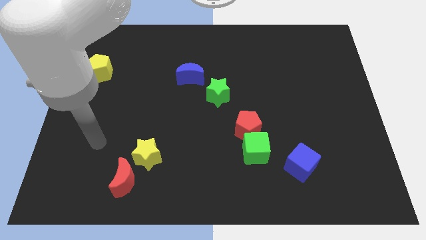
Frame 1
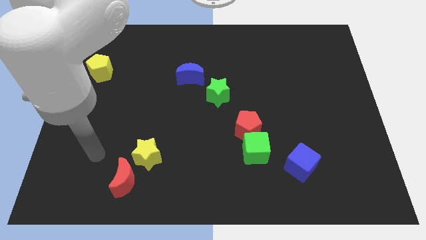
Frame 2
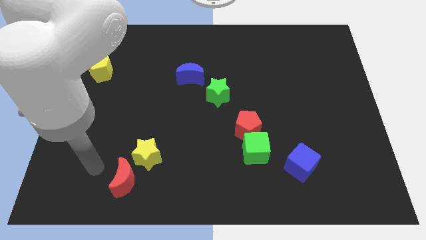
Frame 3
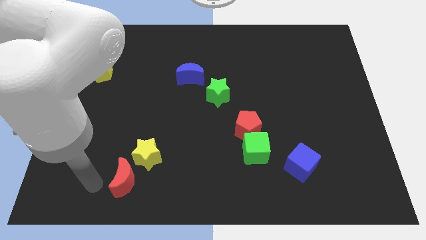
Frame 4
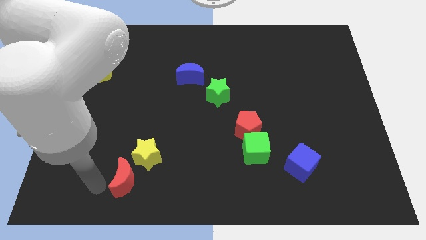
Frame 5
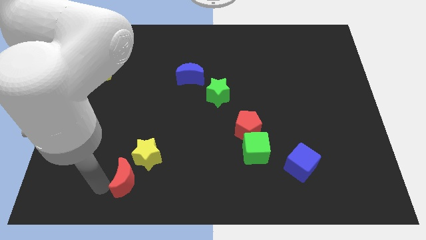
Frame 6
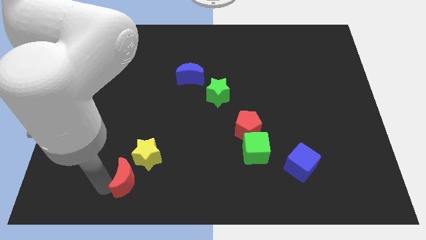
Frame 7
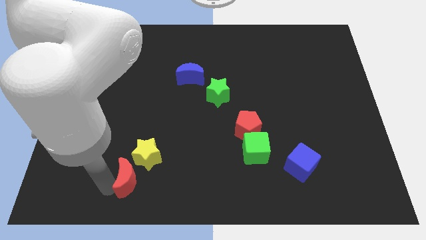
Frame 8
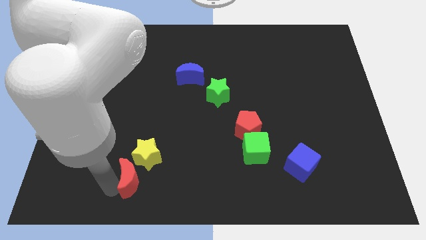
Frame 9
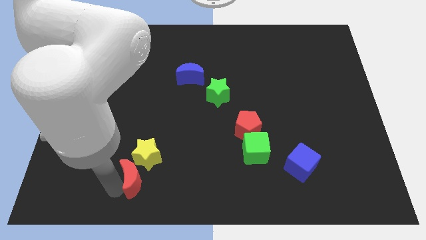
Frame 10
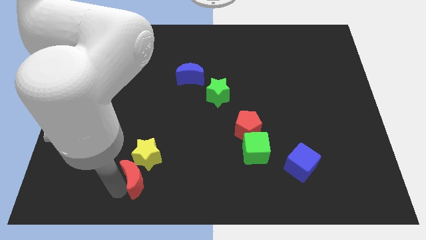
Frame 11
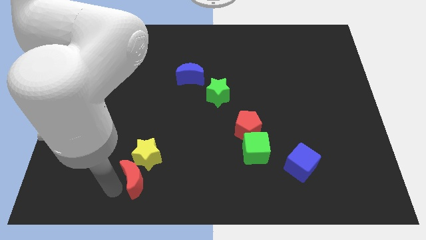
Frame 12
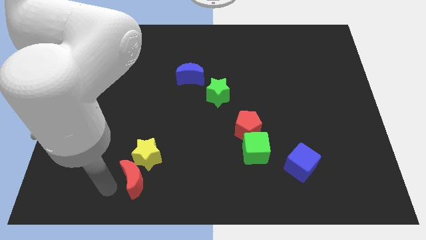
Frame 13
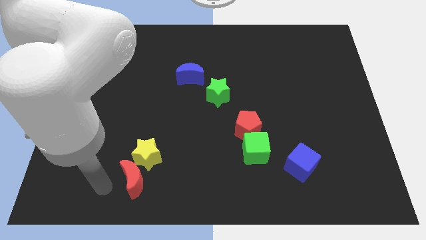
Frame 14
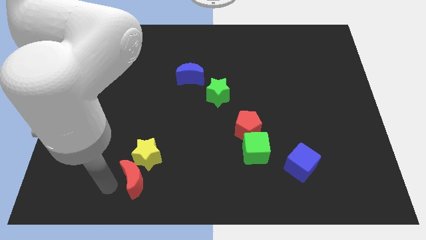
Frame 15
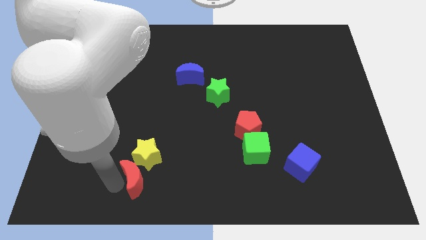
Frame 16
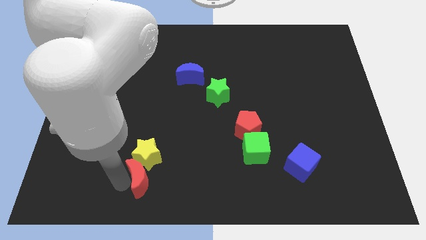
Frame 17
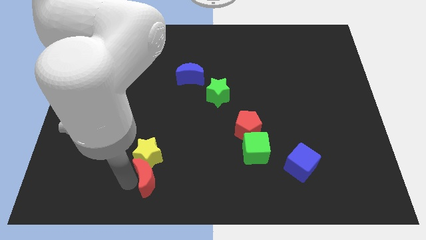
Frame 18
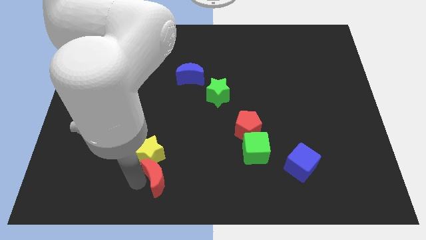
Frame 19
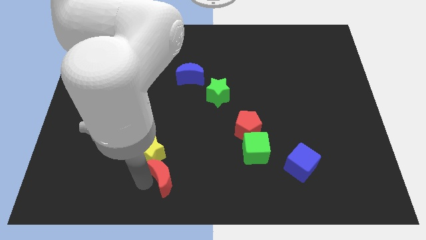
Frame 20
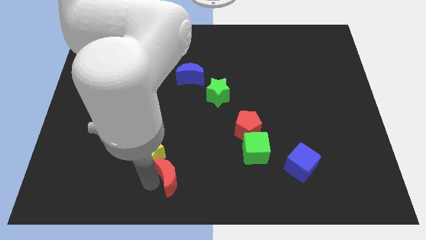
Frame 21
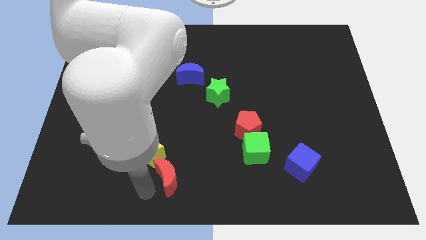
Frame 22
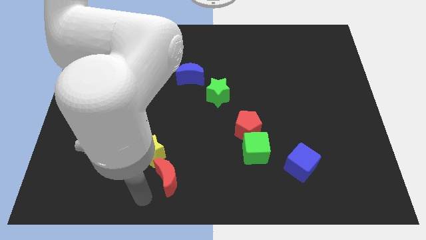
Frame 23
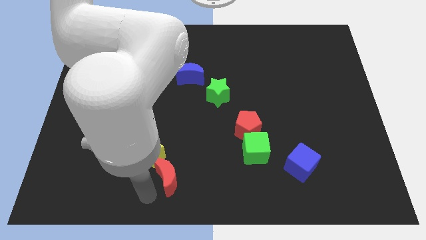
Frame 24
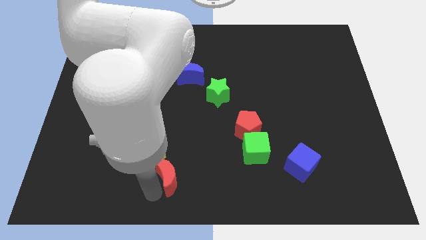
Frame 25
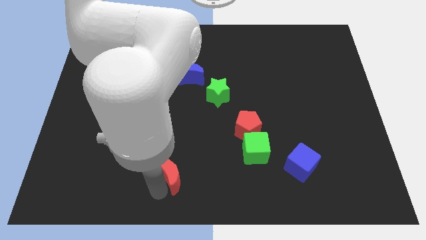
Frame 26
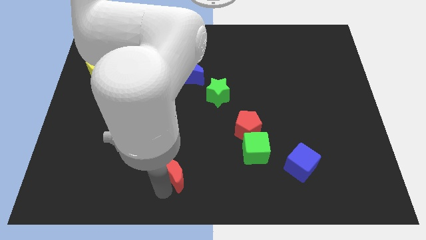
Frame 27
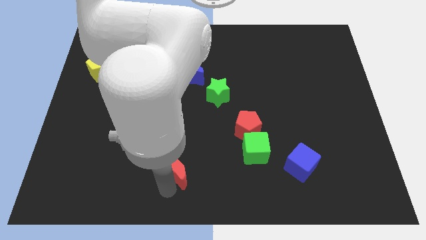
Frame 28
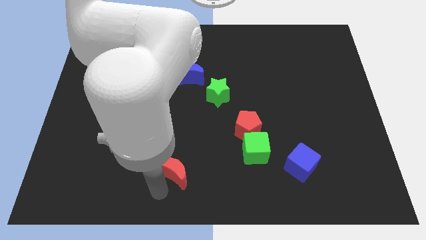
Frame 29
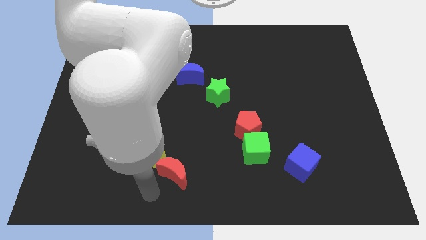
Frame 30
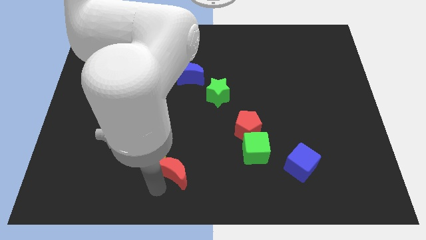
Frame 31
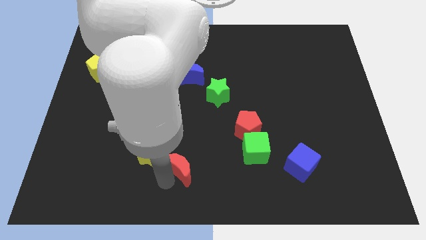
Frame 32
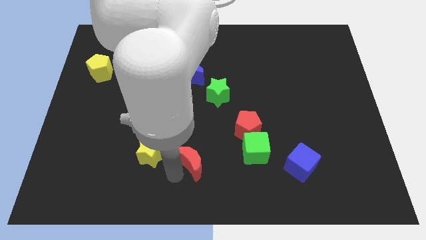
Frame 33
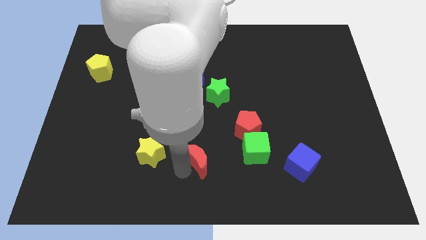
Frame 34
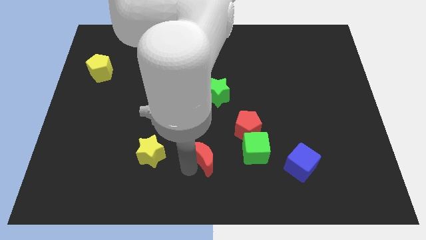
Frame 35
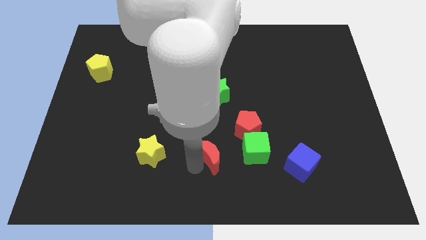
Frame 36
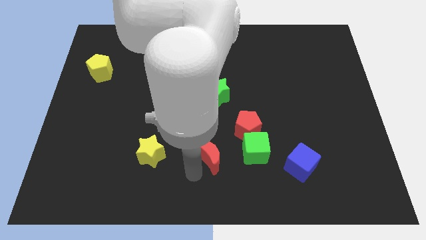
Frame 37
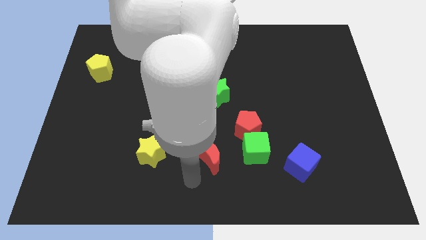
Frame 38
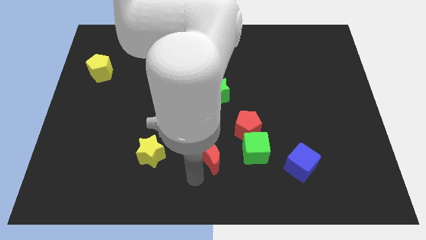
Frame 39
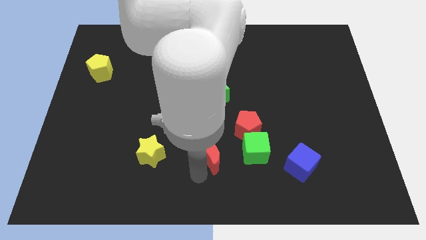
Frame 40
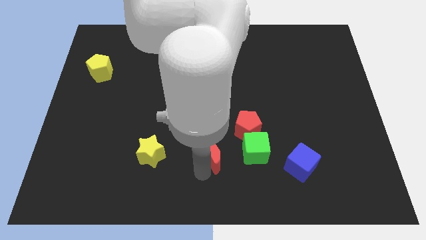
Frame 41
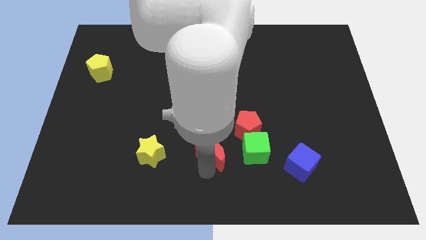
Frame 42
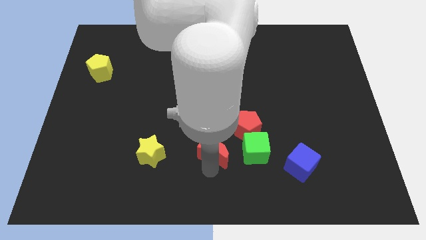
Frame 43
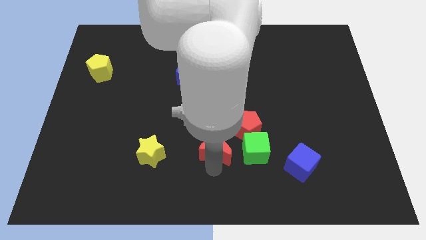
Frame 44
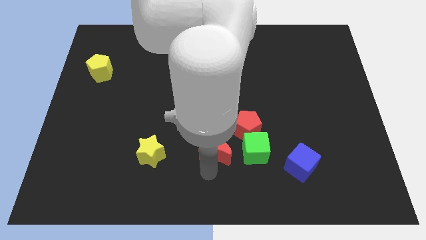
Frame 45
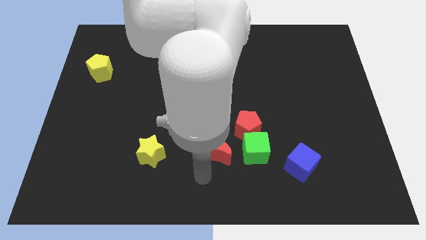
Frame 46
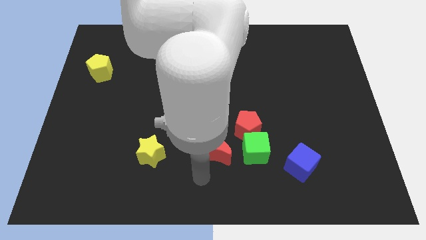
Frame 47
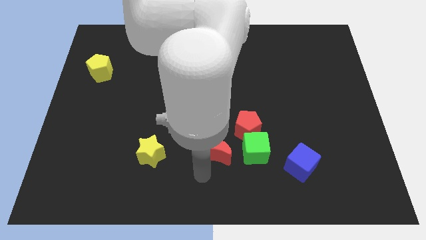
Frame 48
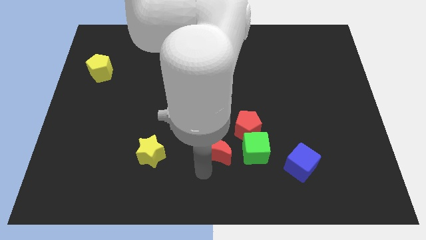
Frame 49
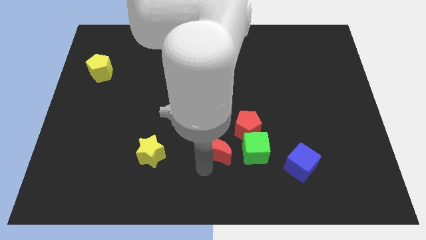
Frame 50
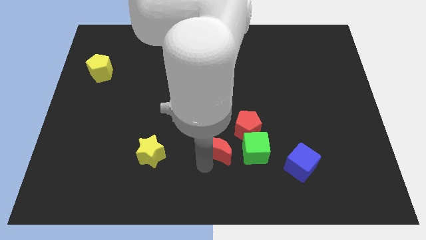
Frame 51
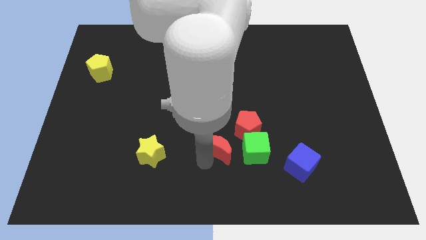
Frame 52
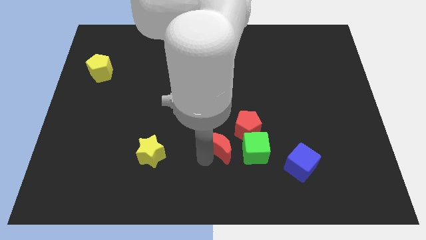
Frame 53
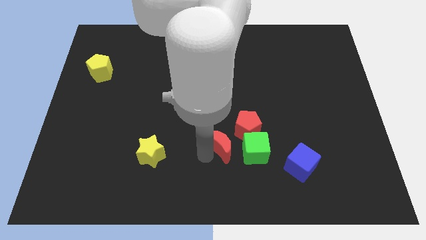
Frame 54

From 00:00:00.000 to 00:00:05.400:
put the red moon to the top left side of the green cube

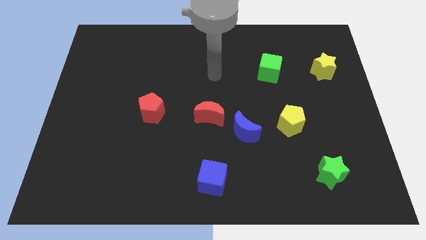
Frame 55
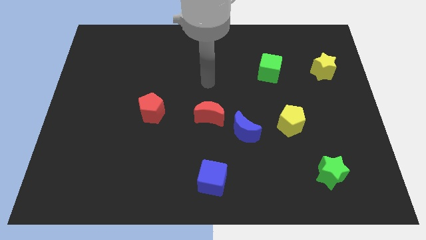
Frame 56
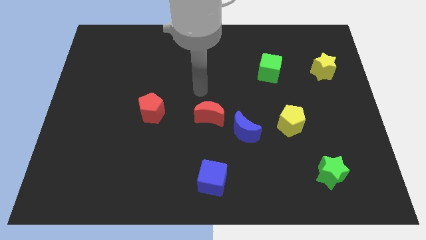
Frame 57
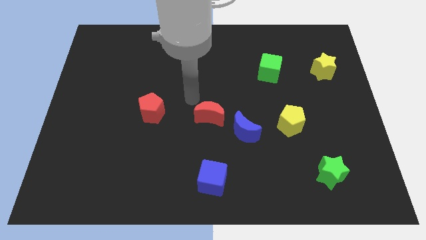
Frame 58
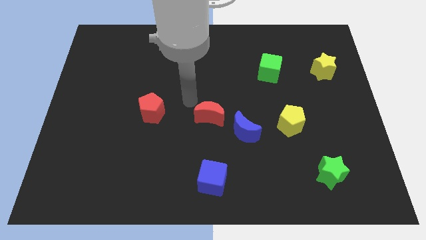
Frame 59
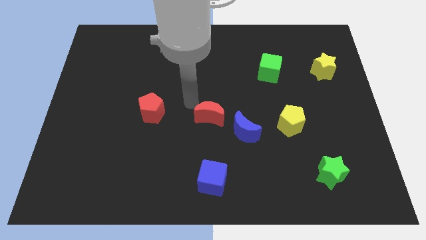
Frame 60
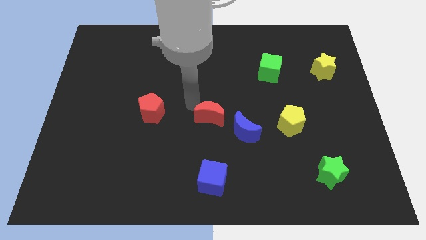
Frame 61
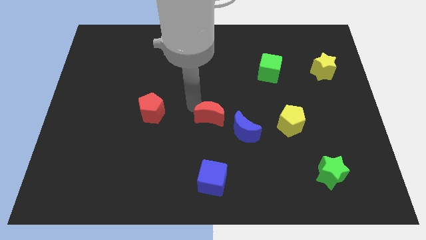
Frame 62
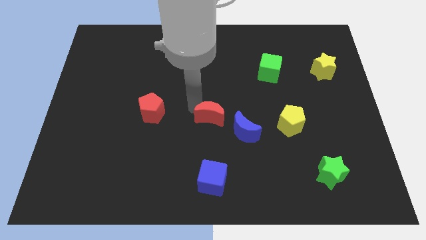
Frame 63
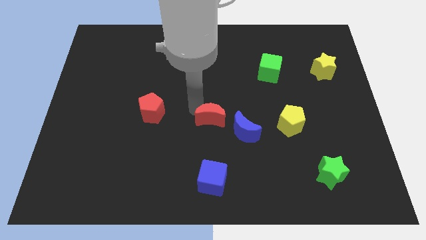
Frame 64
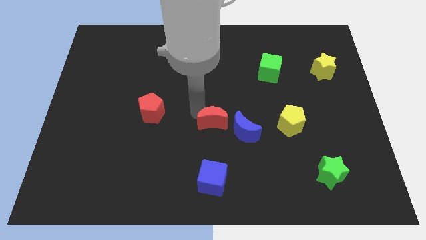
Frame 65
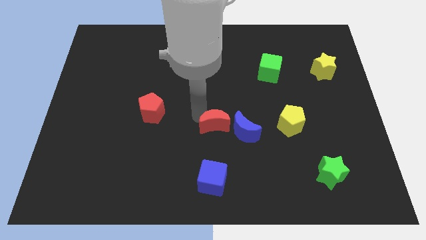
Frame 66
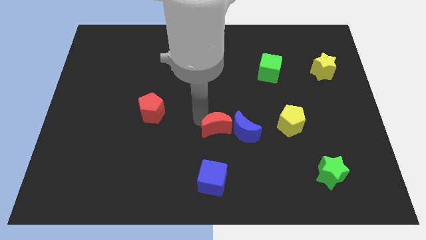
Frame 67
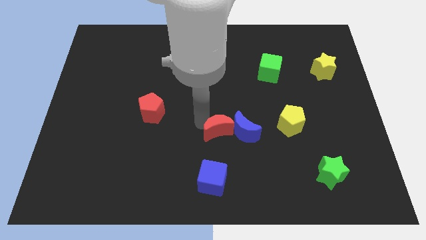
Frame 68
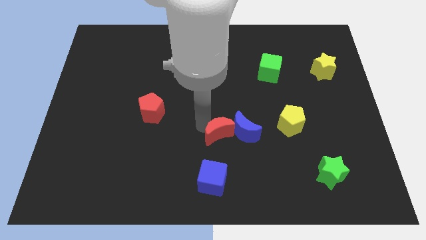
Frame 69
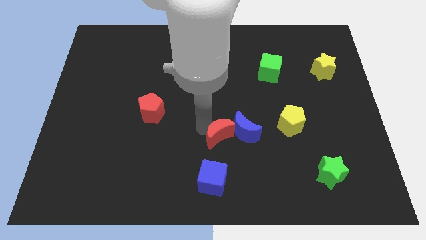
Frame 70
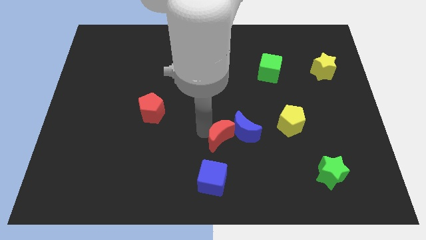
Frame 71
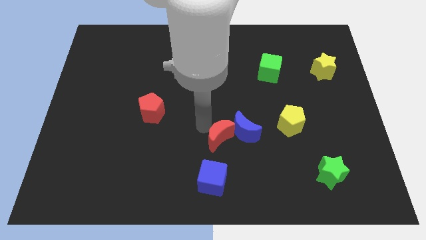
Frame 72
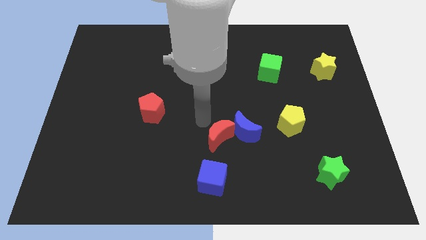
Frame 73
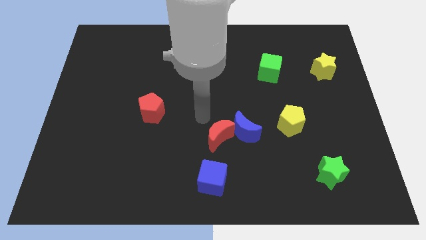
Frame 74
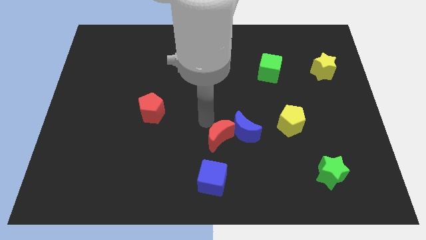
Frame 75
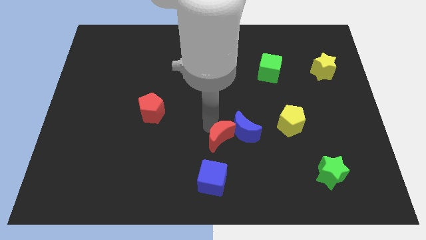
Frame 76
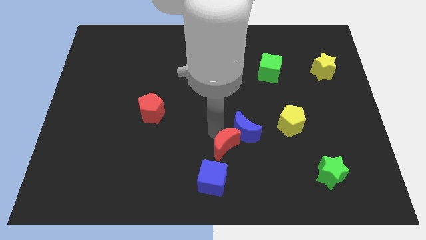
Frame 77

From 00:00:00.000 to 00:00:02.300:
slide the red moon to the top right side of the blue cube
